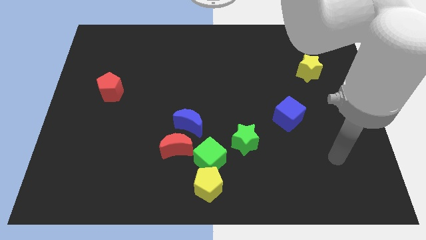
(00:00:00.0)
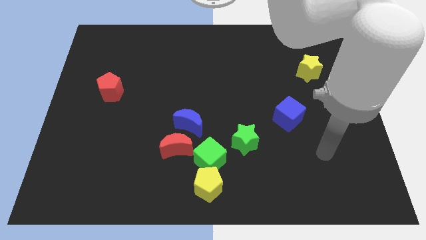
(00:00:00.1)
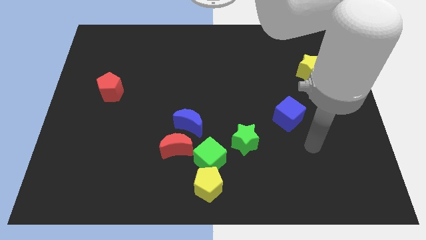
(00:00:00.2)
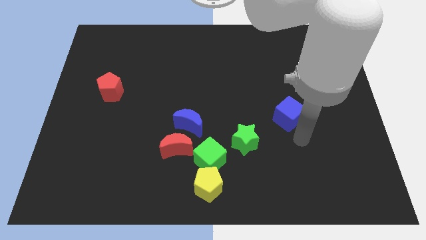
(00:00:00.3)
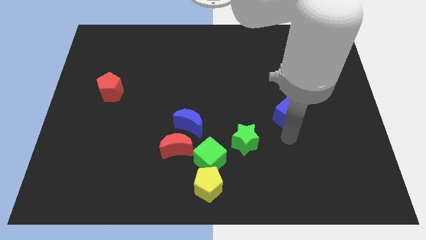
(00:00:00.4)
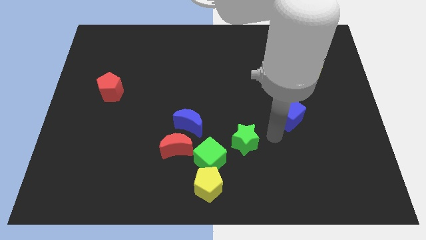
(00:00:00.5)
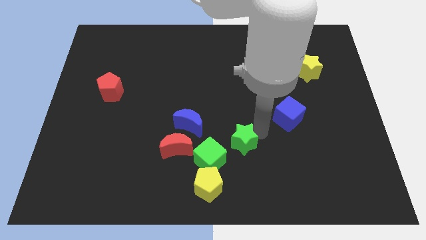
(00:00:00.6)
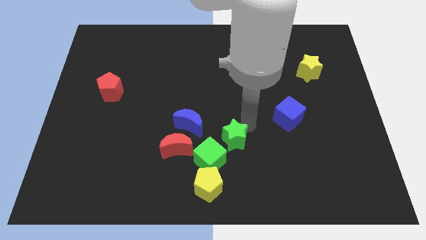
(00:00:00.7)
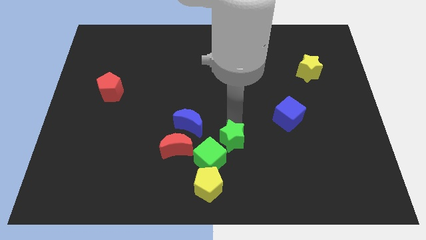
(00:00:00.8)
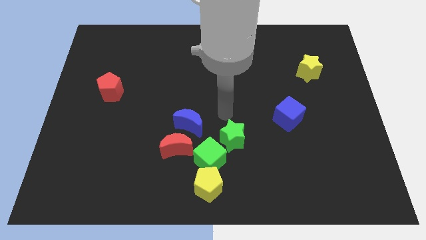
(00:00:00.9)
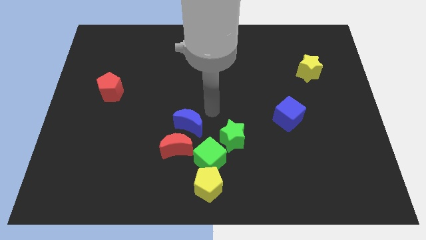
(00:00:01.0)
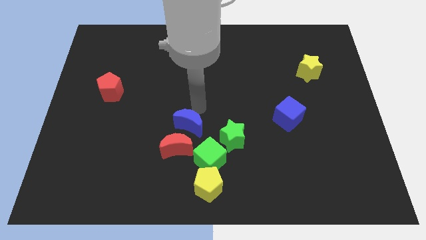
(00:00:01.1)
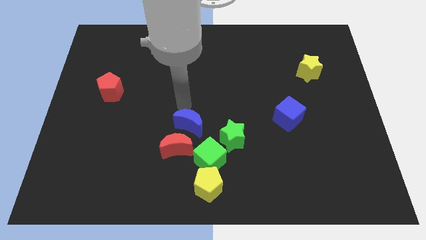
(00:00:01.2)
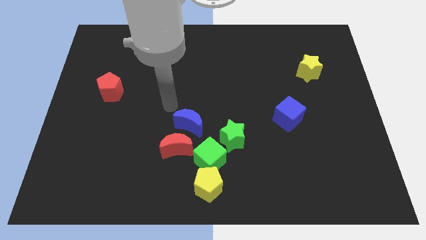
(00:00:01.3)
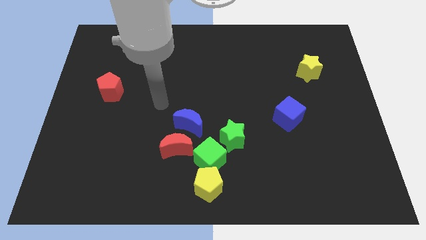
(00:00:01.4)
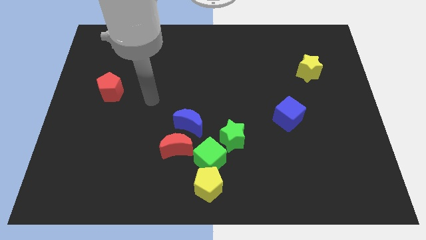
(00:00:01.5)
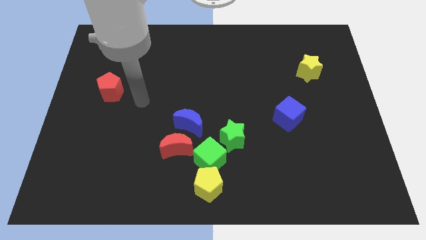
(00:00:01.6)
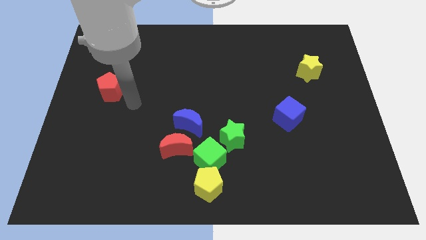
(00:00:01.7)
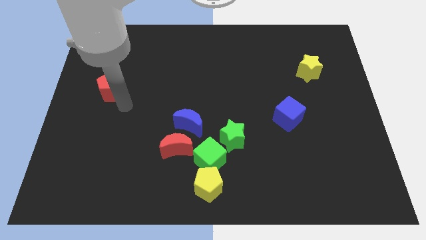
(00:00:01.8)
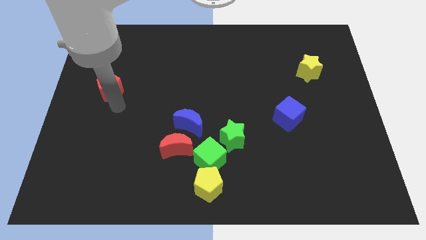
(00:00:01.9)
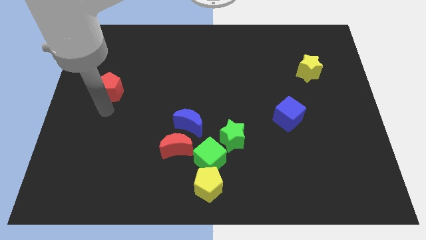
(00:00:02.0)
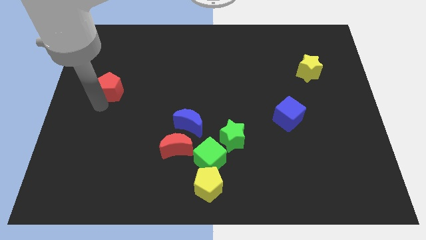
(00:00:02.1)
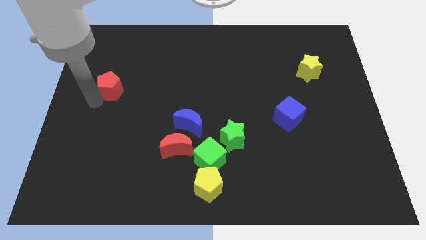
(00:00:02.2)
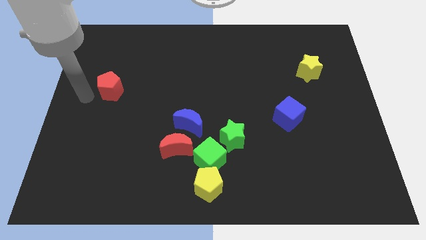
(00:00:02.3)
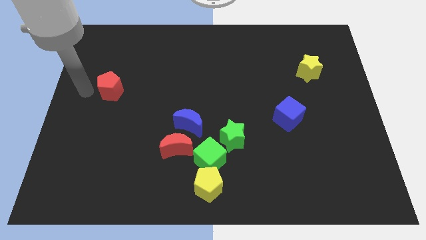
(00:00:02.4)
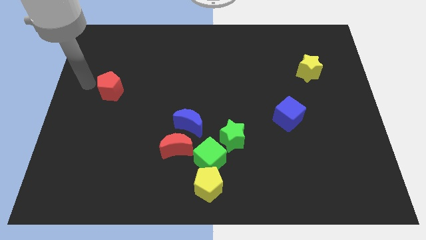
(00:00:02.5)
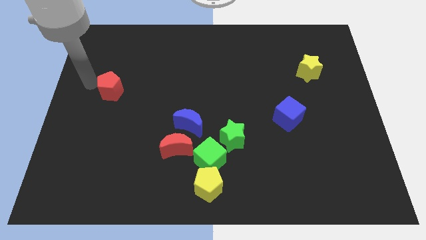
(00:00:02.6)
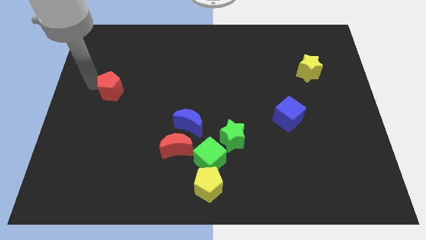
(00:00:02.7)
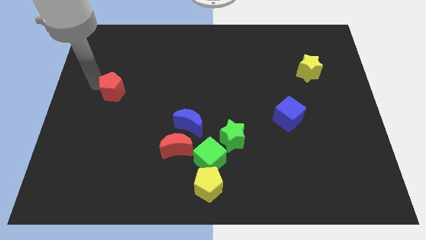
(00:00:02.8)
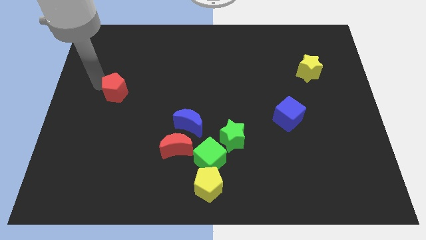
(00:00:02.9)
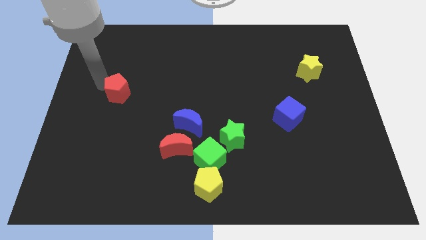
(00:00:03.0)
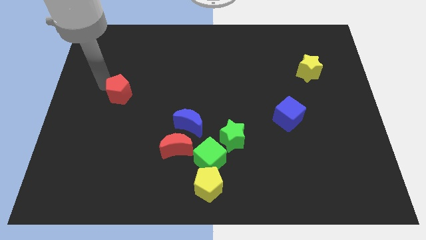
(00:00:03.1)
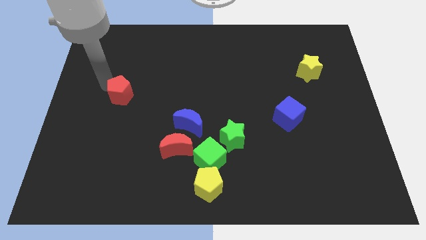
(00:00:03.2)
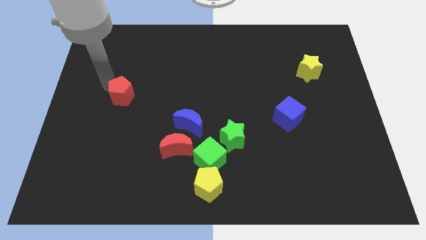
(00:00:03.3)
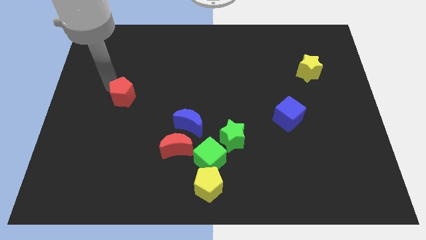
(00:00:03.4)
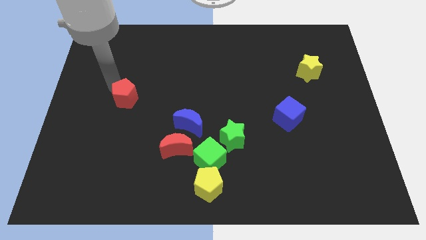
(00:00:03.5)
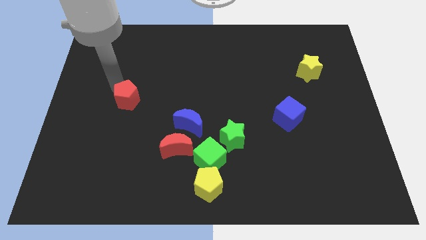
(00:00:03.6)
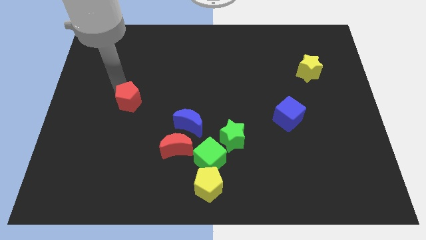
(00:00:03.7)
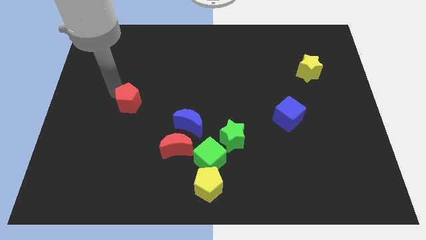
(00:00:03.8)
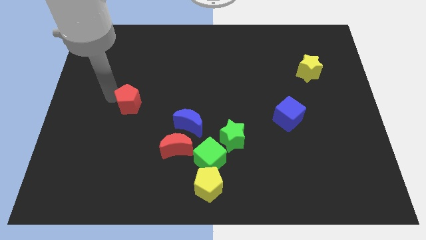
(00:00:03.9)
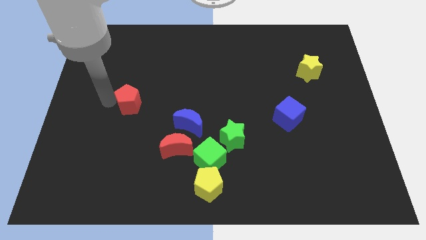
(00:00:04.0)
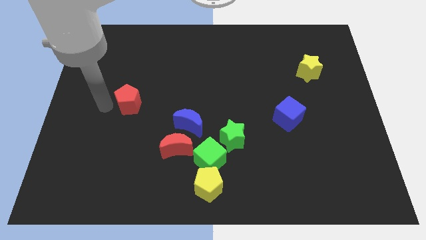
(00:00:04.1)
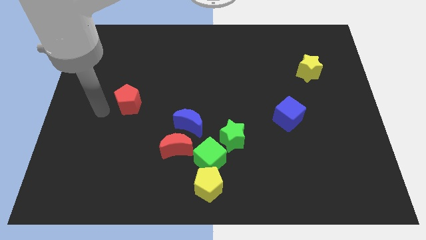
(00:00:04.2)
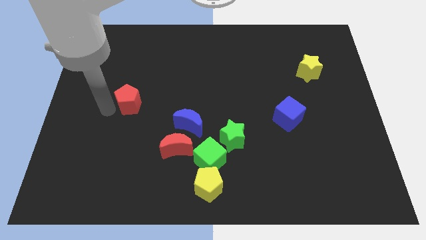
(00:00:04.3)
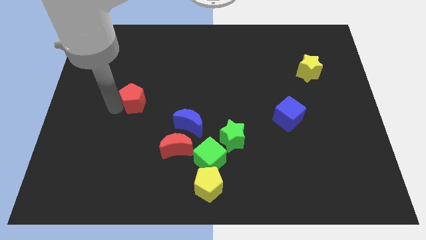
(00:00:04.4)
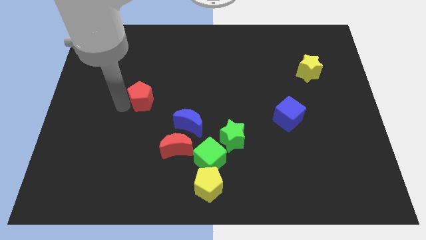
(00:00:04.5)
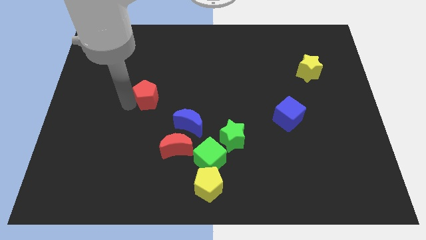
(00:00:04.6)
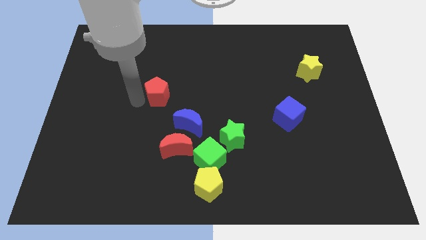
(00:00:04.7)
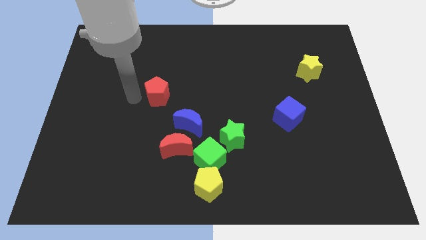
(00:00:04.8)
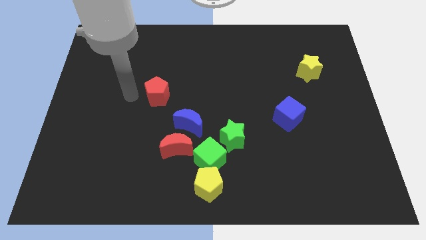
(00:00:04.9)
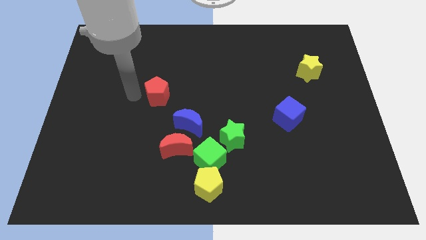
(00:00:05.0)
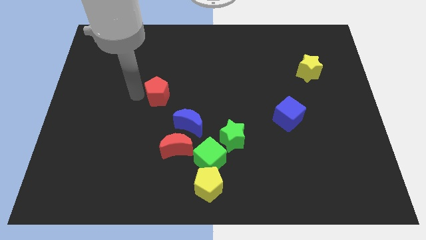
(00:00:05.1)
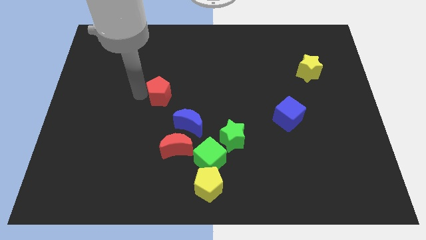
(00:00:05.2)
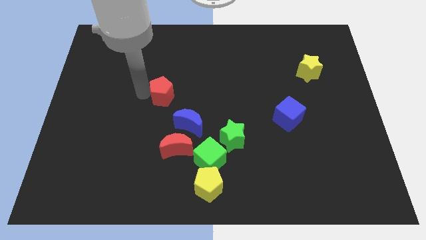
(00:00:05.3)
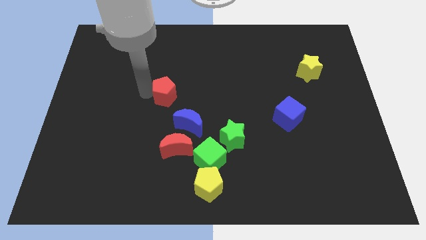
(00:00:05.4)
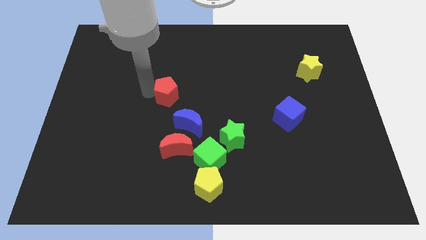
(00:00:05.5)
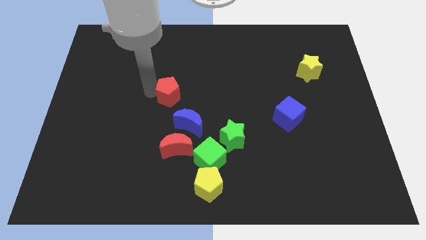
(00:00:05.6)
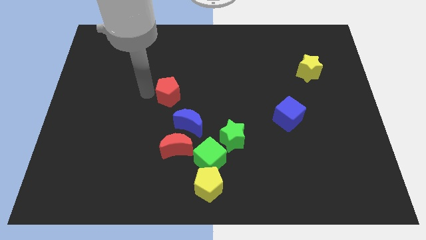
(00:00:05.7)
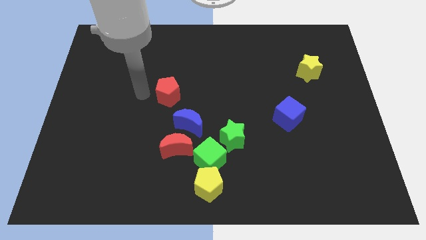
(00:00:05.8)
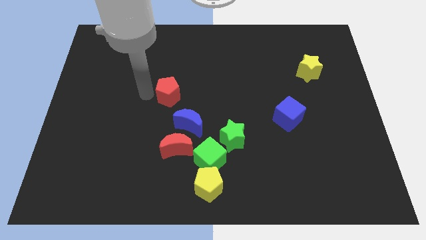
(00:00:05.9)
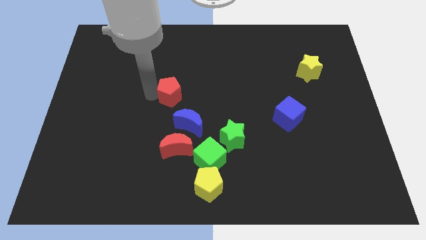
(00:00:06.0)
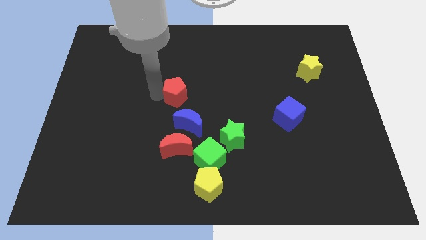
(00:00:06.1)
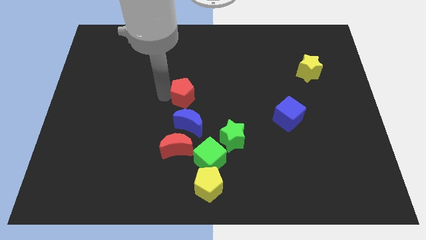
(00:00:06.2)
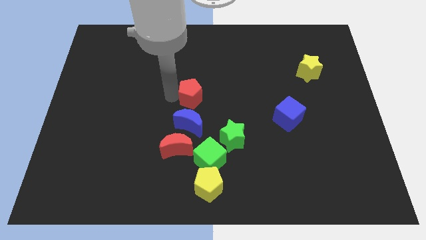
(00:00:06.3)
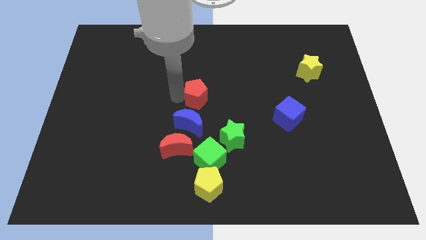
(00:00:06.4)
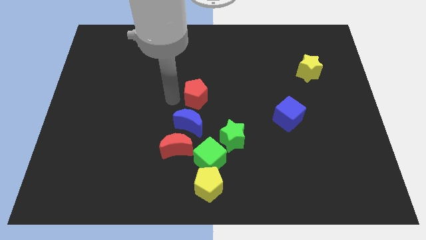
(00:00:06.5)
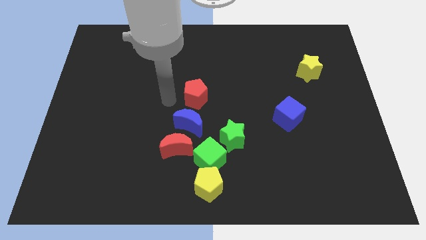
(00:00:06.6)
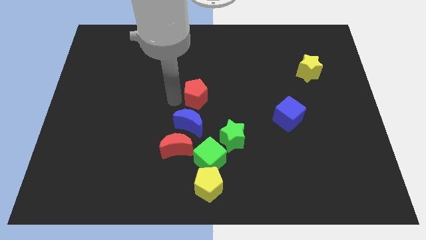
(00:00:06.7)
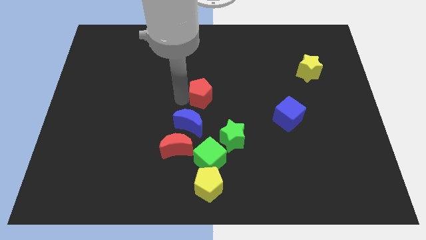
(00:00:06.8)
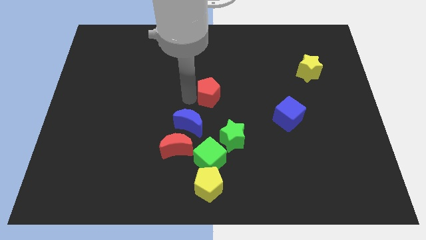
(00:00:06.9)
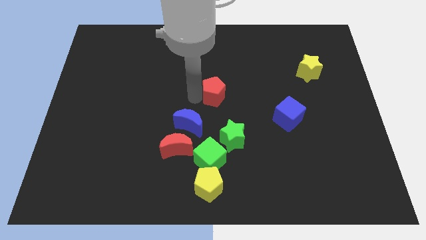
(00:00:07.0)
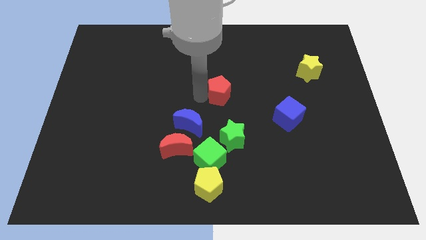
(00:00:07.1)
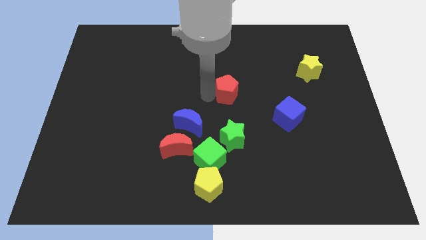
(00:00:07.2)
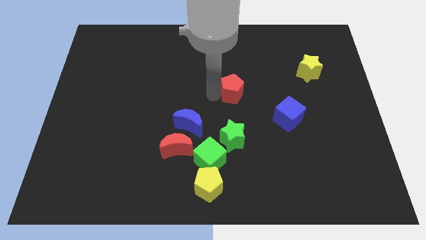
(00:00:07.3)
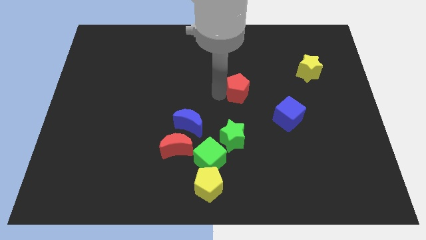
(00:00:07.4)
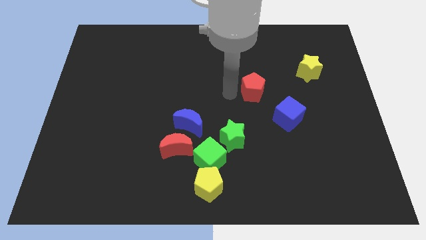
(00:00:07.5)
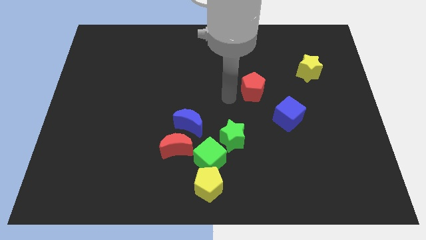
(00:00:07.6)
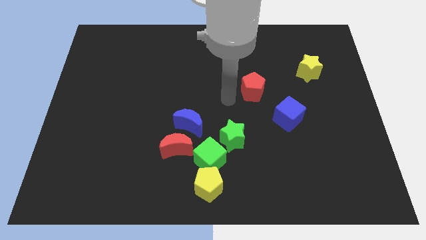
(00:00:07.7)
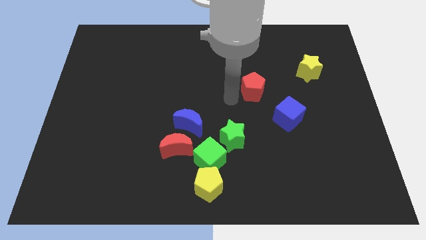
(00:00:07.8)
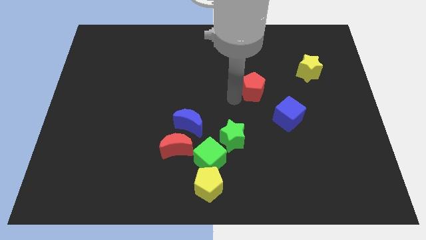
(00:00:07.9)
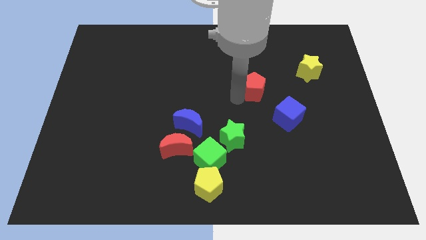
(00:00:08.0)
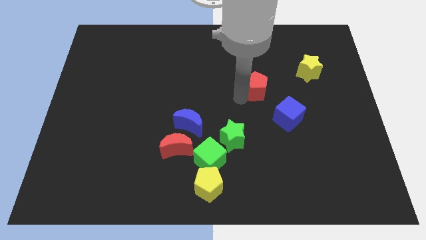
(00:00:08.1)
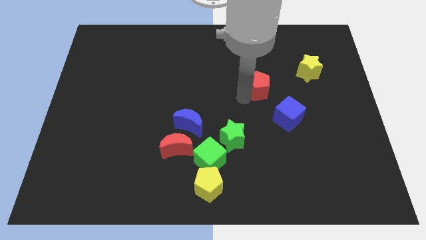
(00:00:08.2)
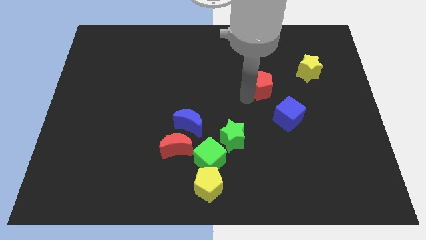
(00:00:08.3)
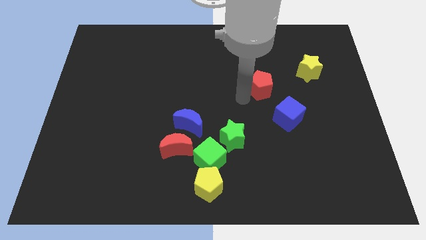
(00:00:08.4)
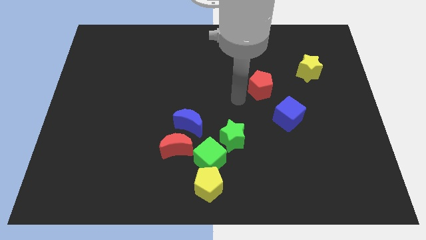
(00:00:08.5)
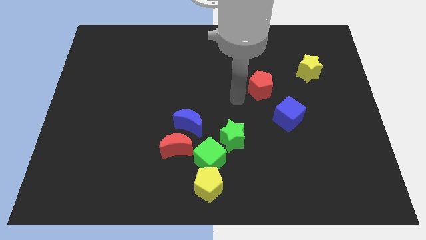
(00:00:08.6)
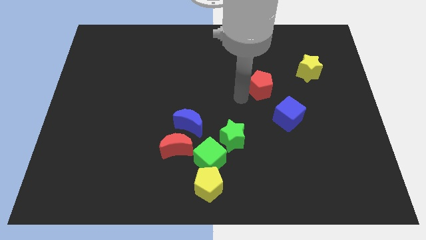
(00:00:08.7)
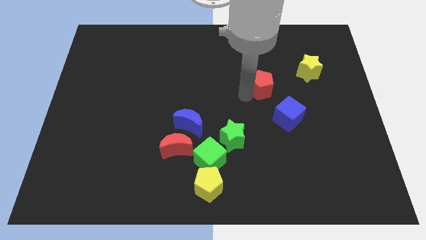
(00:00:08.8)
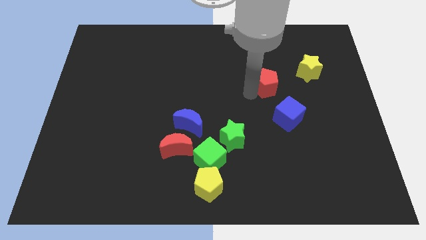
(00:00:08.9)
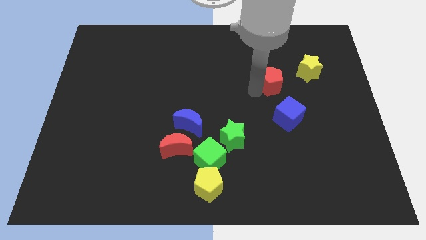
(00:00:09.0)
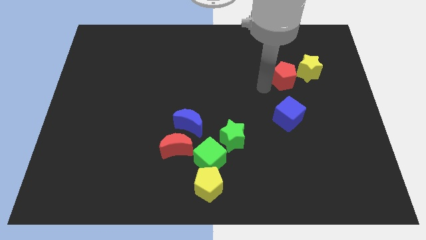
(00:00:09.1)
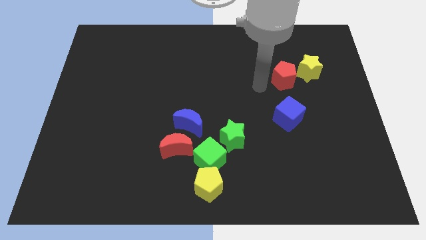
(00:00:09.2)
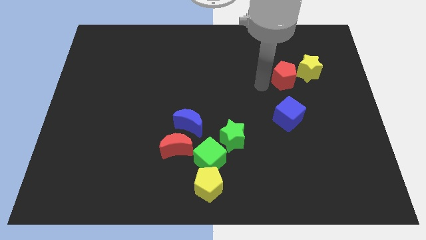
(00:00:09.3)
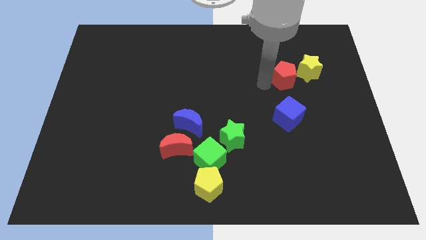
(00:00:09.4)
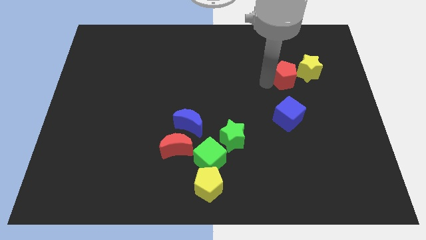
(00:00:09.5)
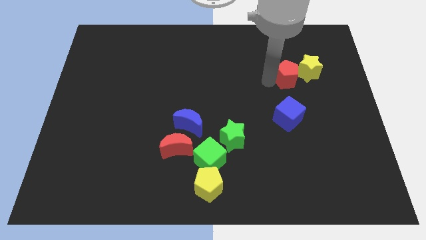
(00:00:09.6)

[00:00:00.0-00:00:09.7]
put the red pentagon next to the yellow star
